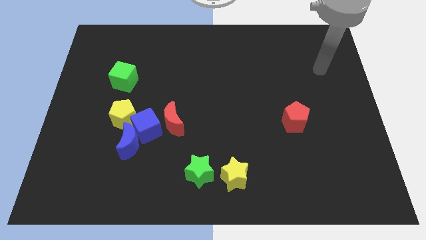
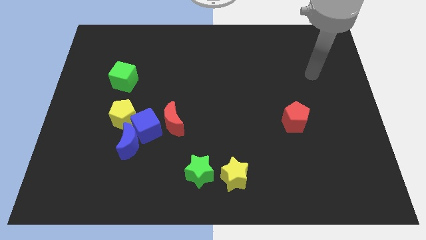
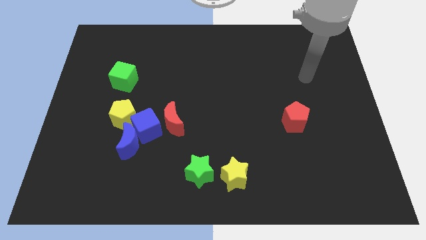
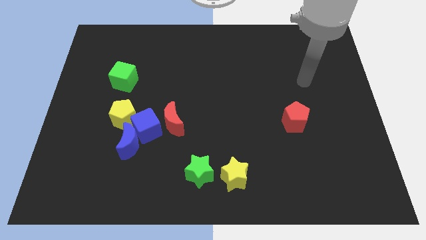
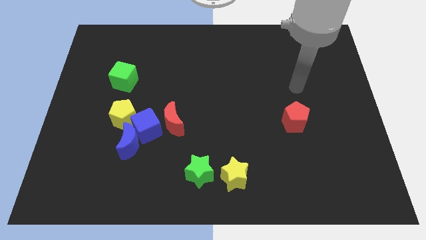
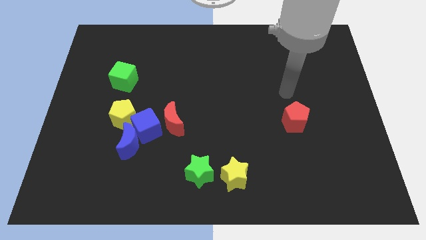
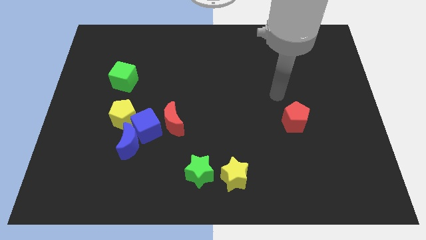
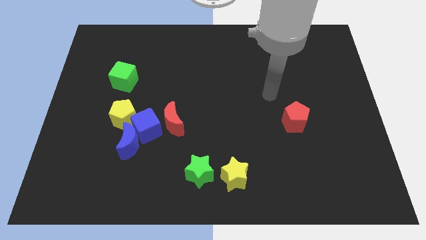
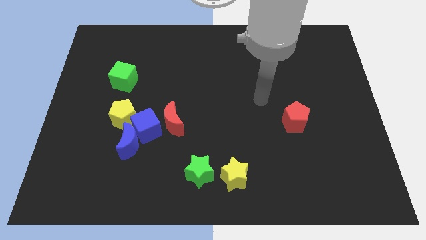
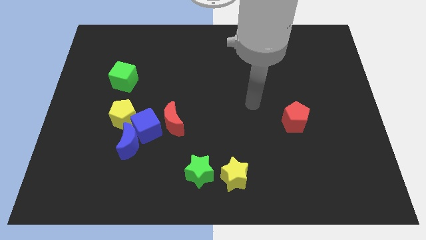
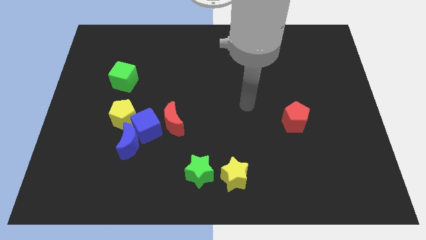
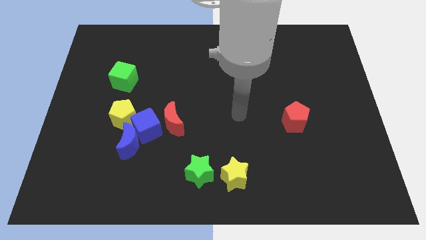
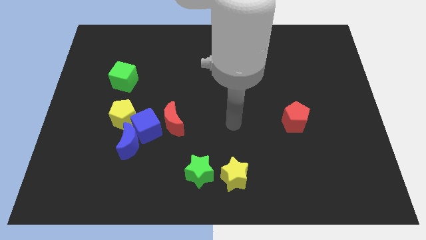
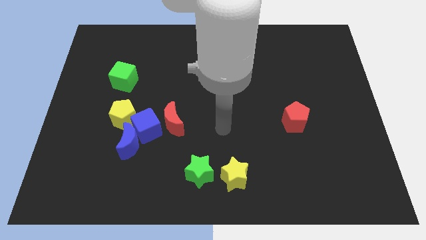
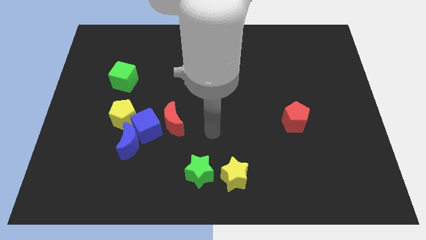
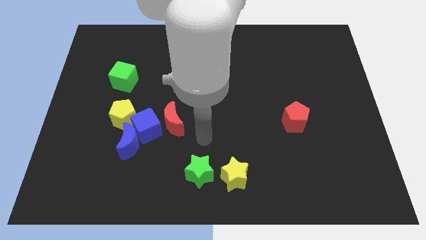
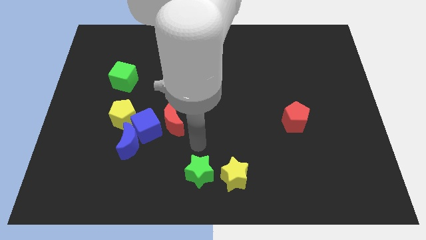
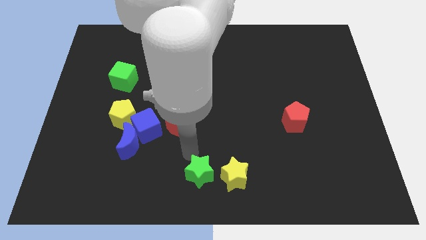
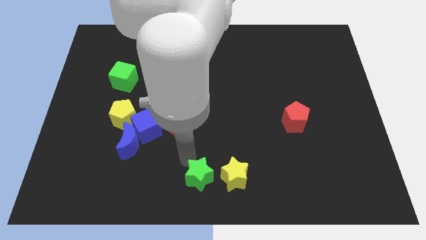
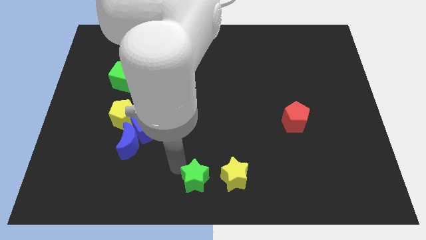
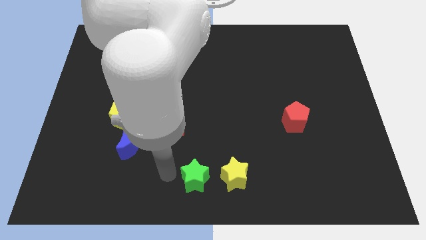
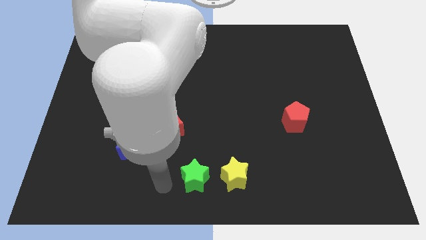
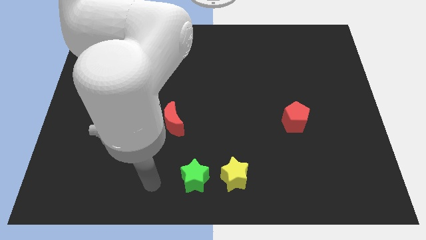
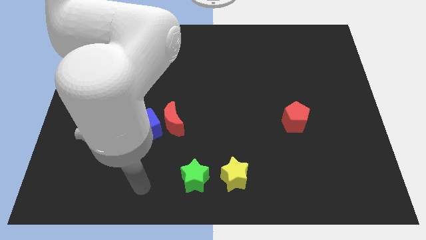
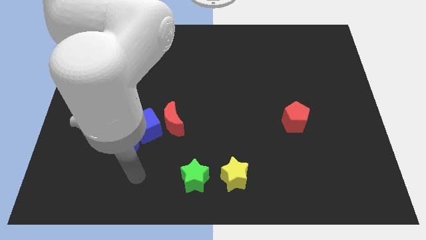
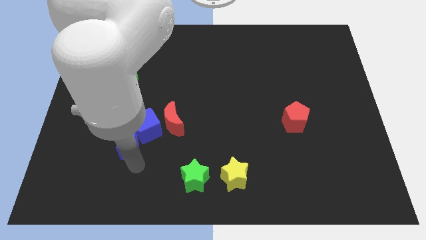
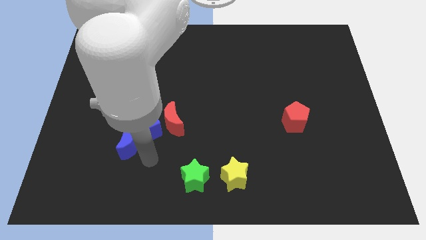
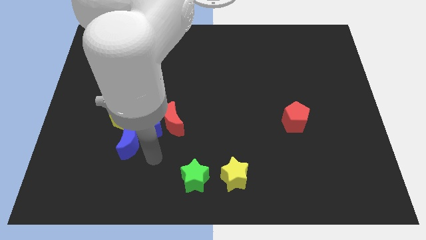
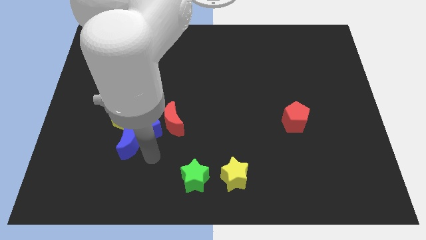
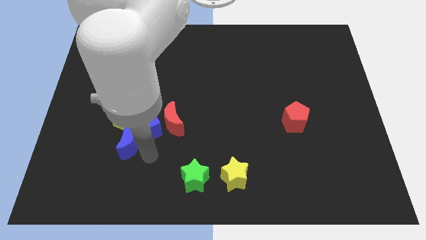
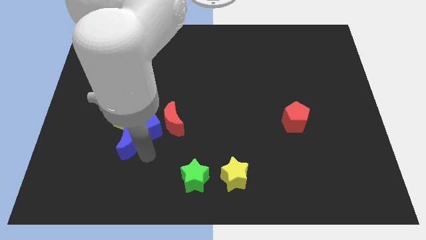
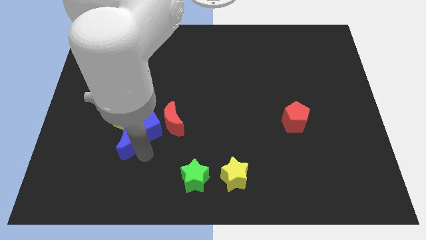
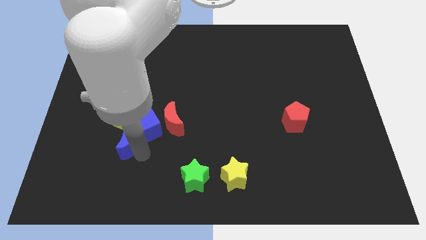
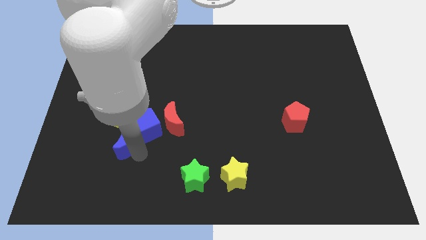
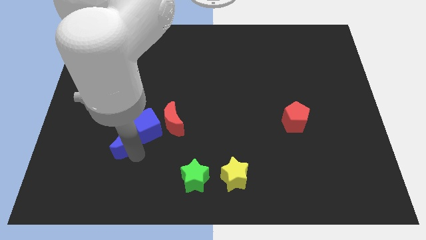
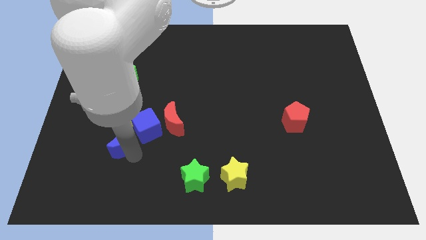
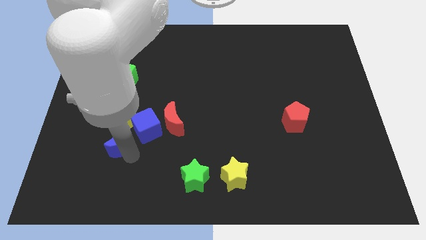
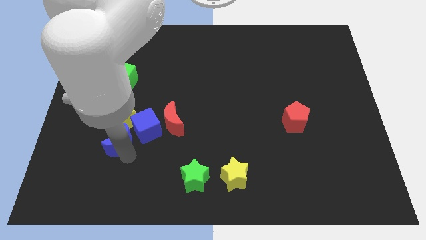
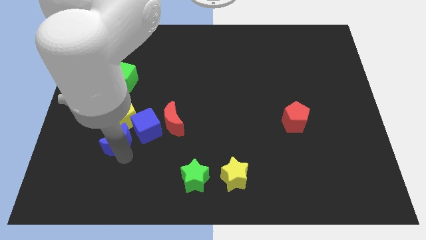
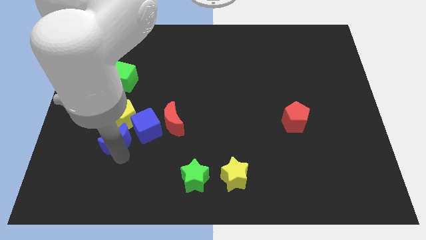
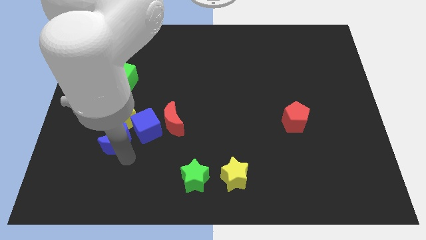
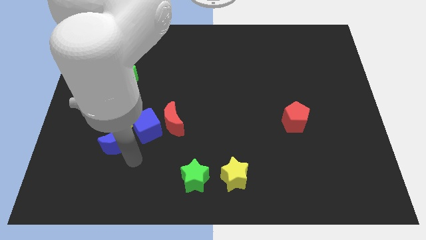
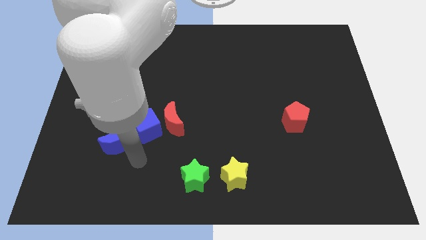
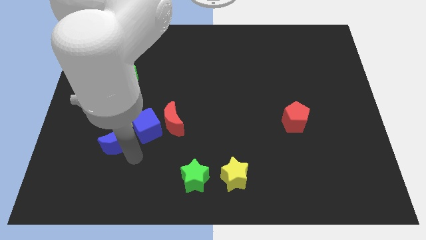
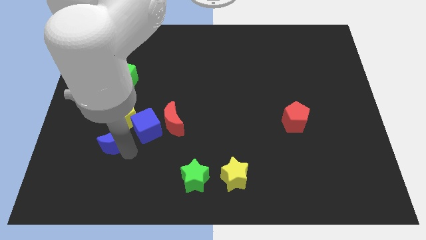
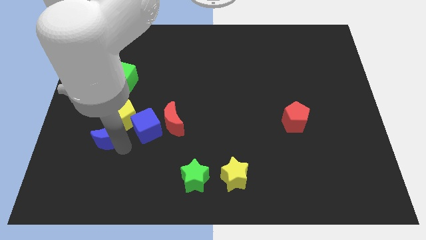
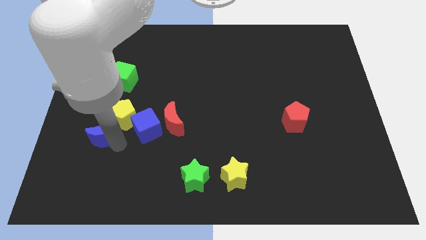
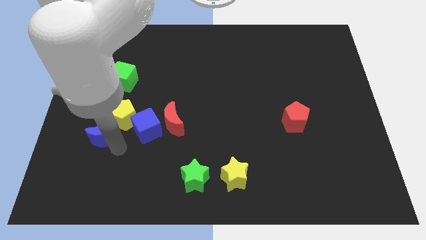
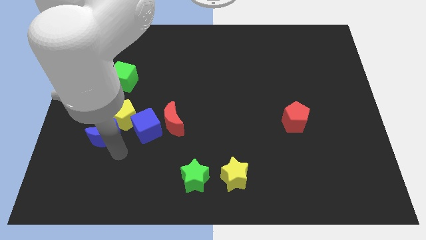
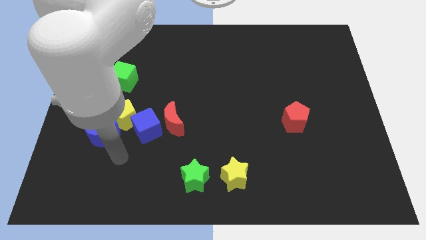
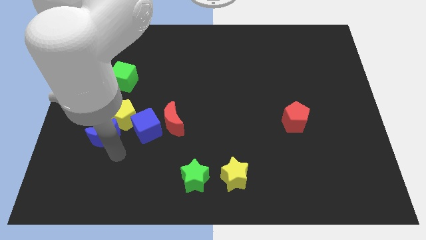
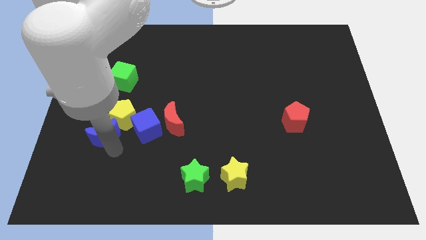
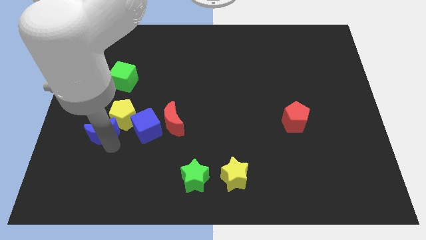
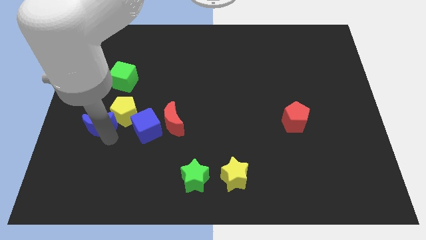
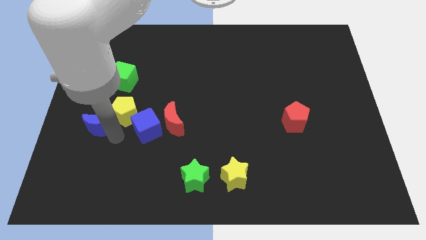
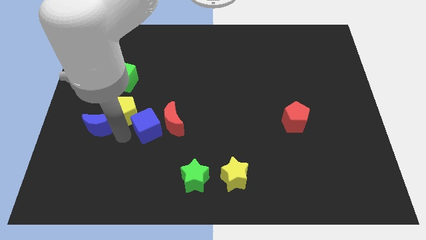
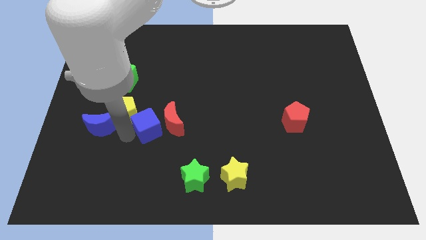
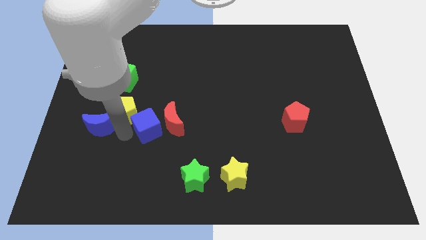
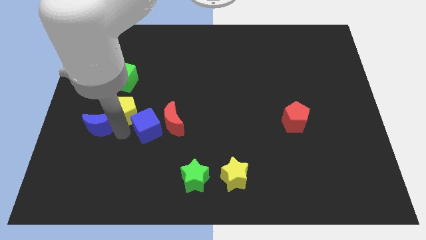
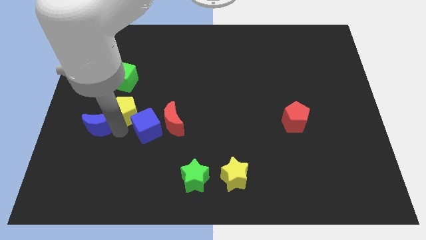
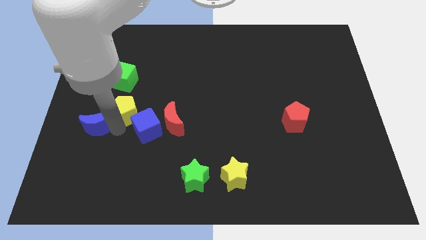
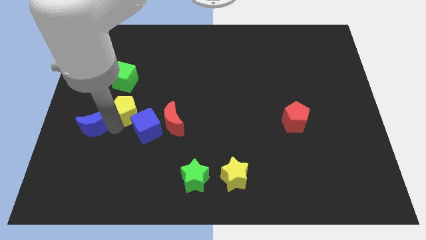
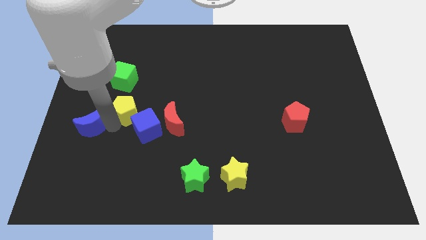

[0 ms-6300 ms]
push the blue moon to the left side
